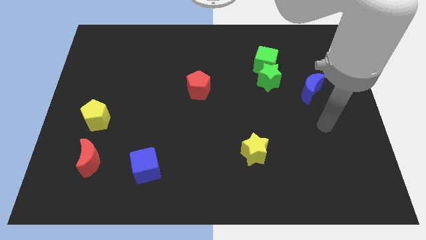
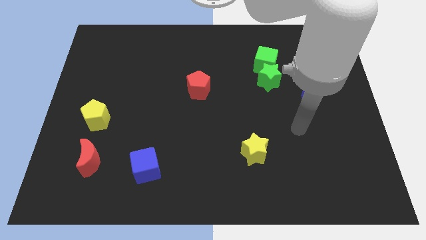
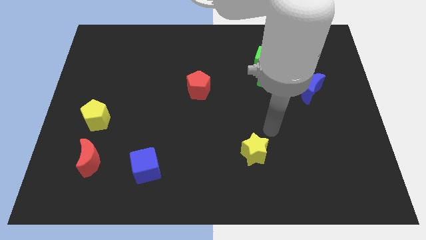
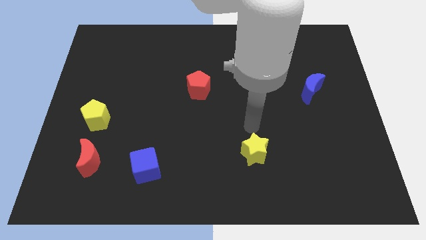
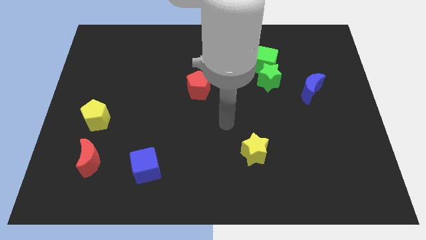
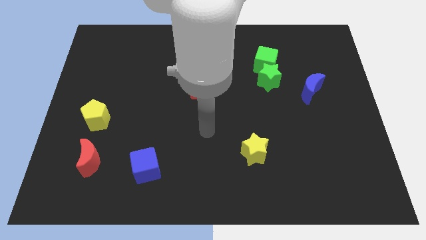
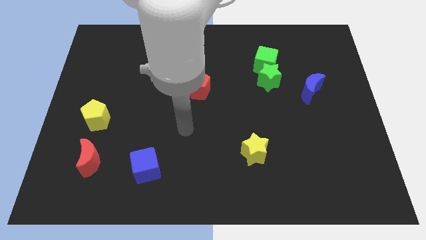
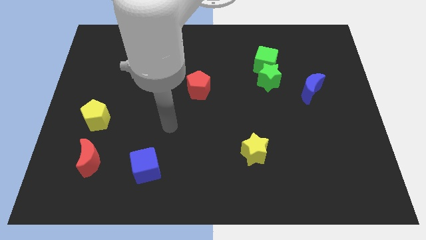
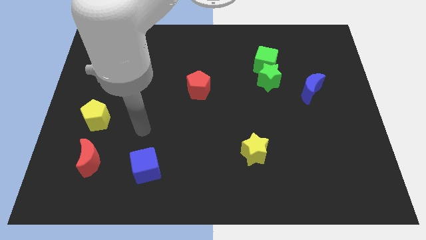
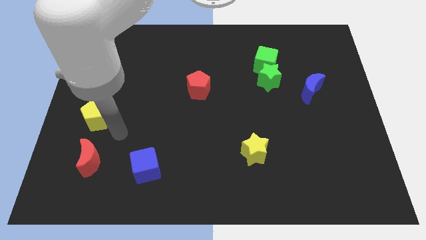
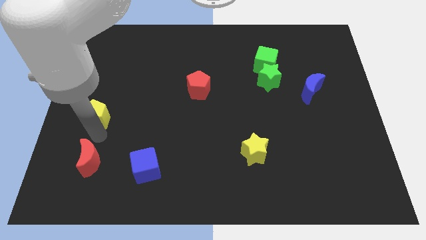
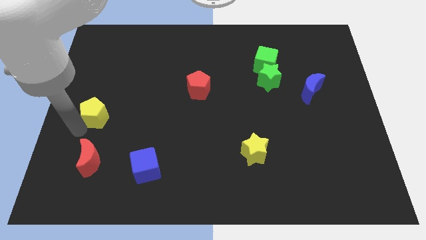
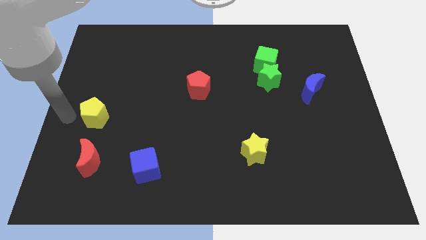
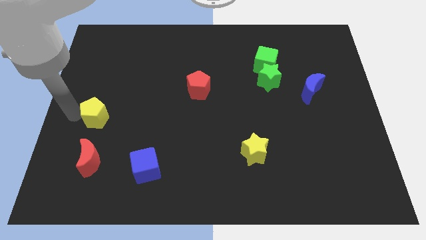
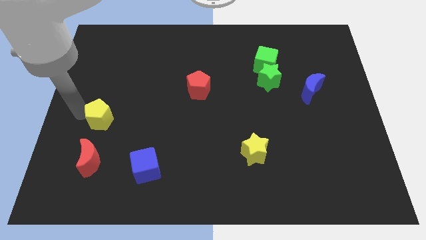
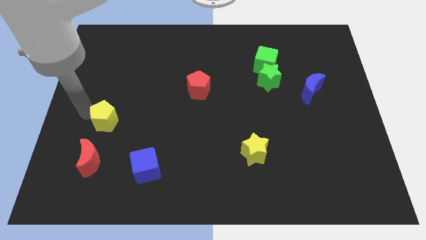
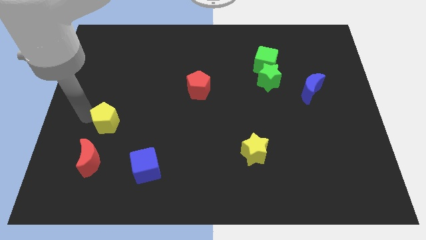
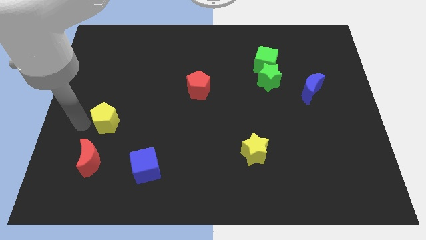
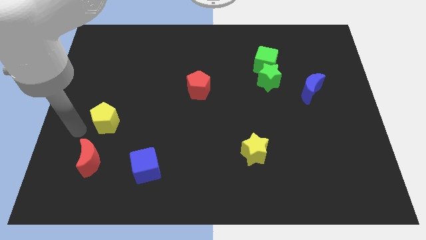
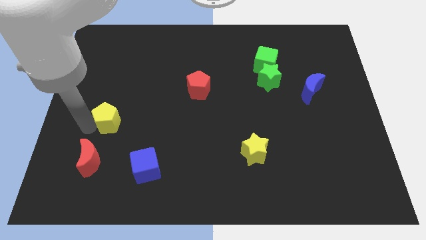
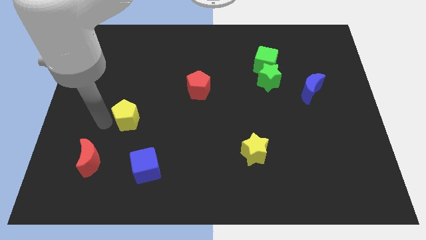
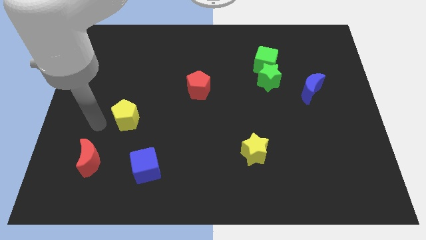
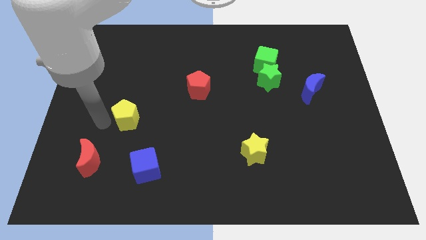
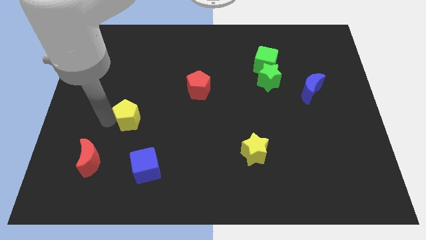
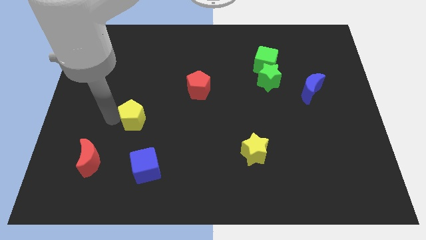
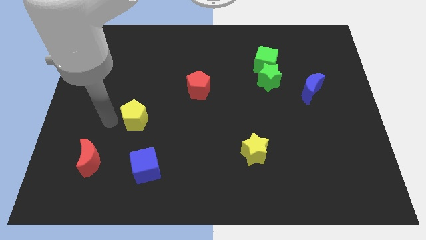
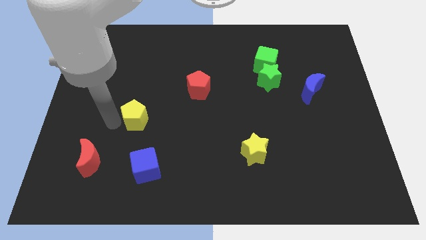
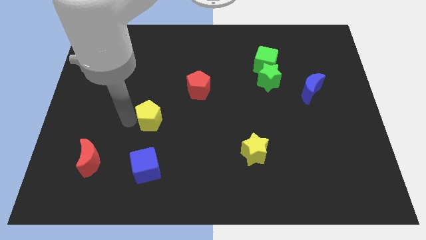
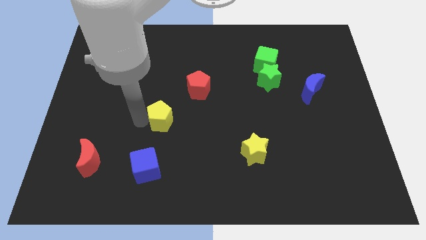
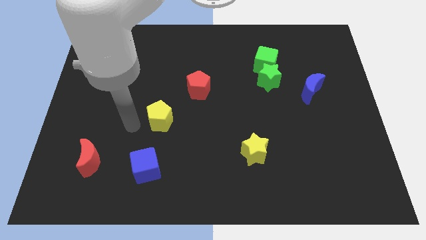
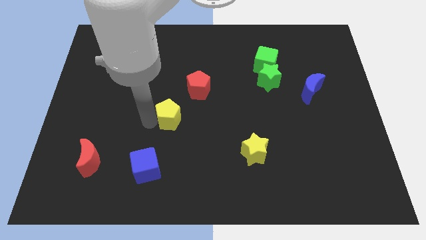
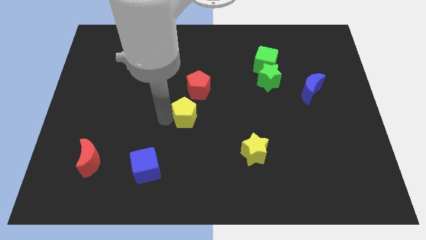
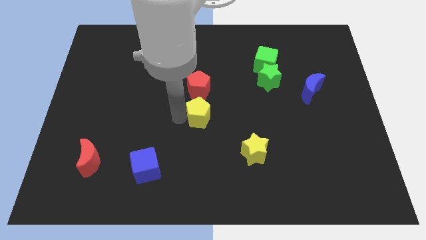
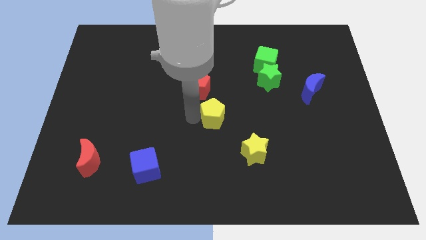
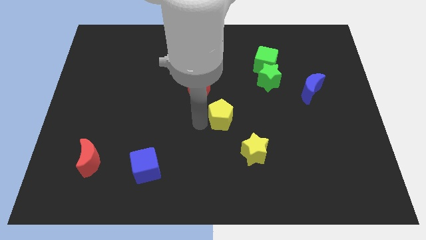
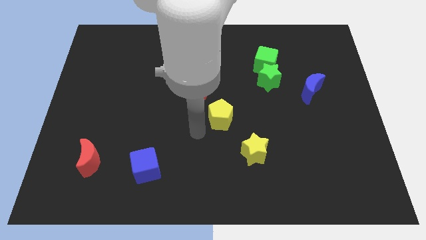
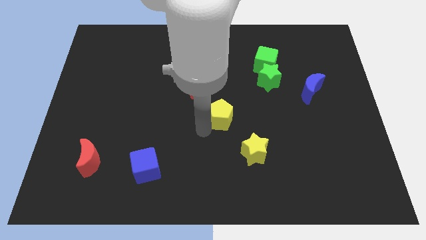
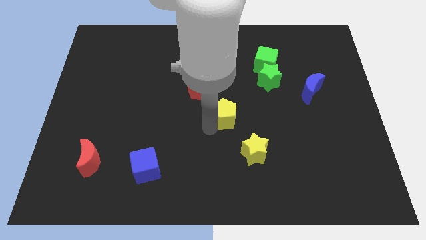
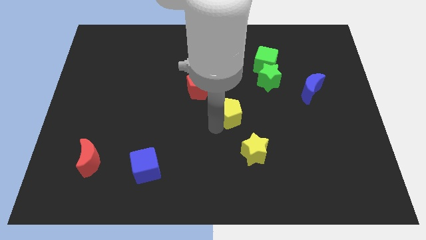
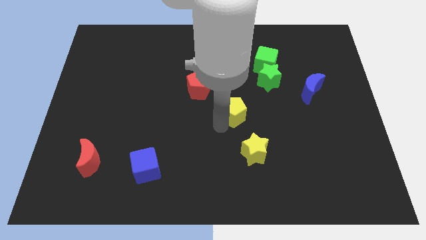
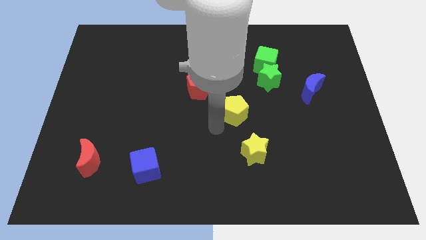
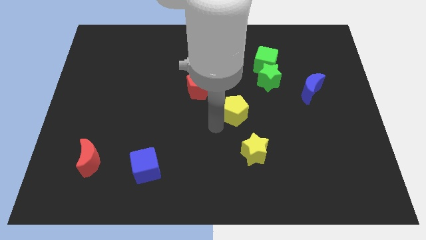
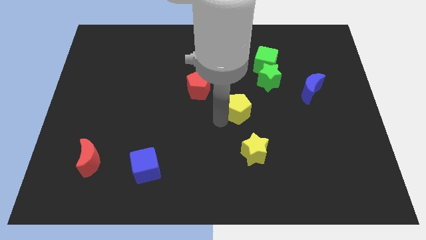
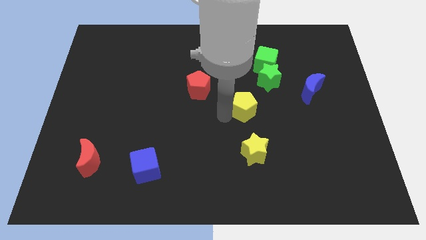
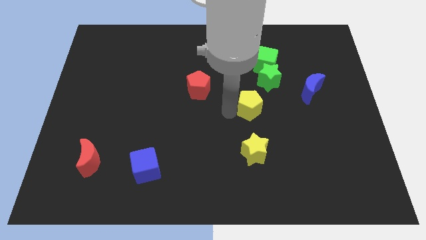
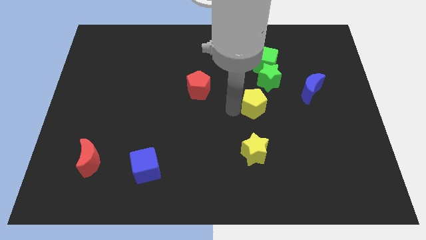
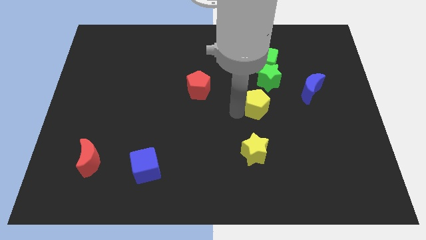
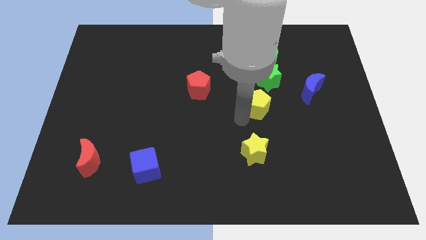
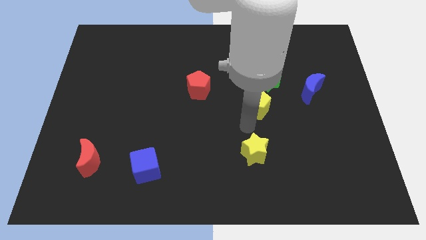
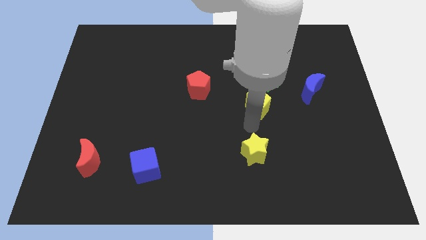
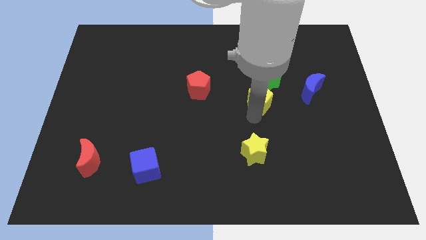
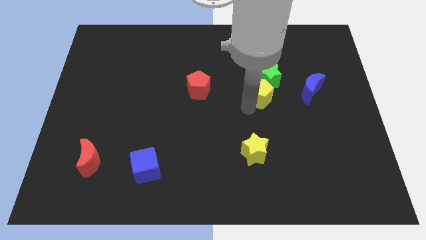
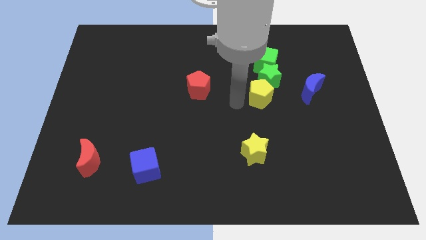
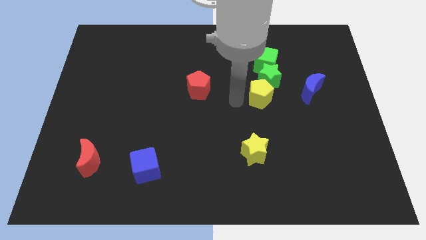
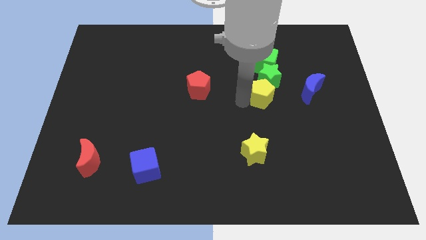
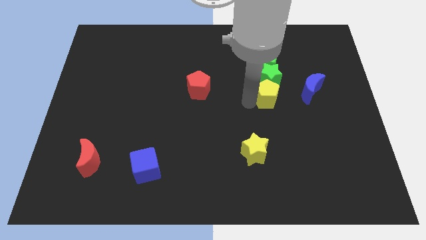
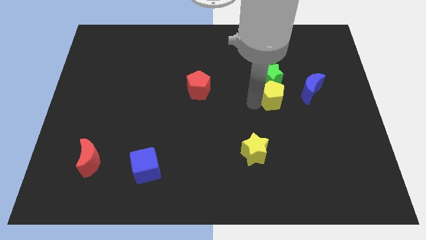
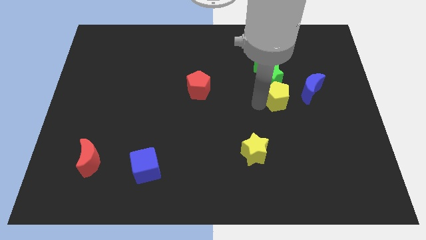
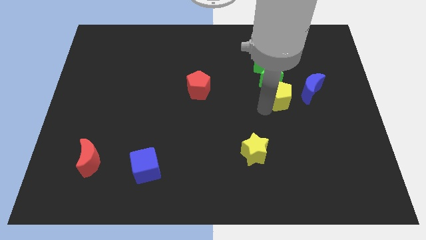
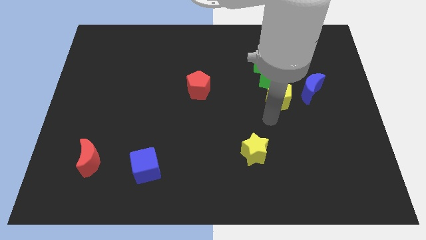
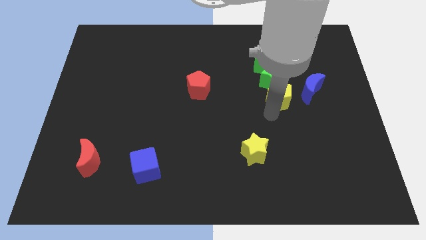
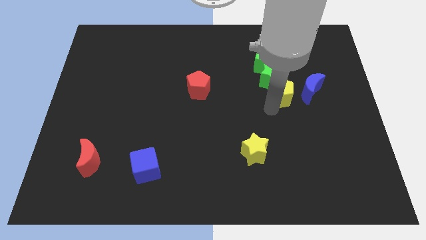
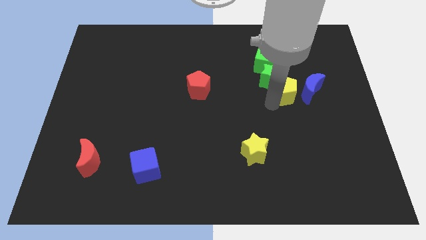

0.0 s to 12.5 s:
slide the yellow pentagon to the bottom right of the green cube

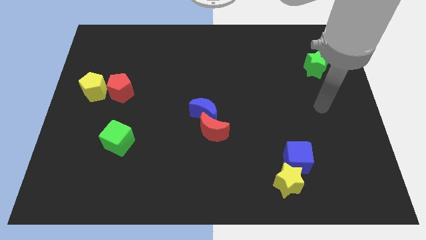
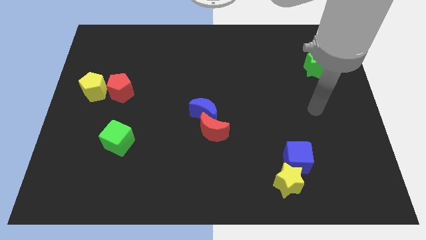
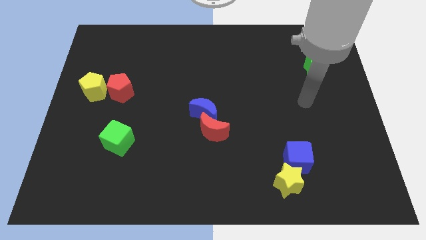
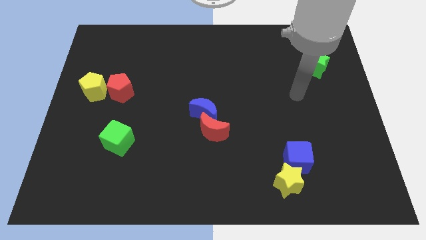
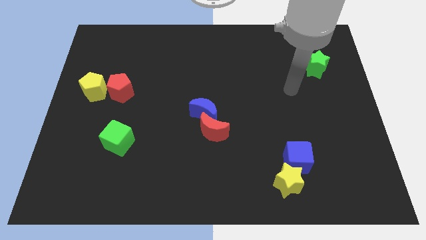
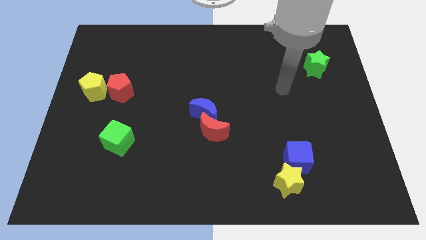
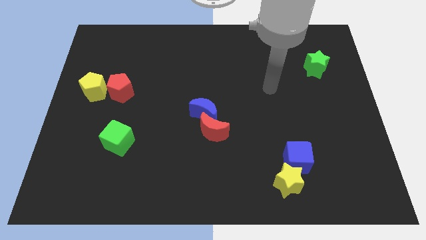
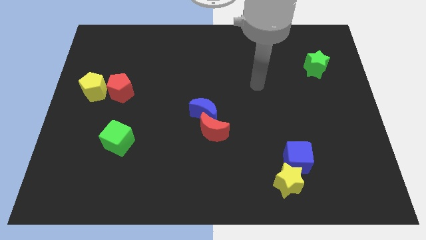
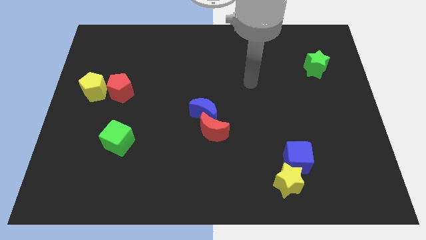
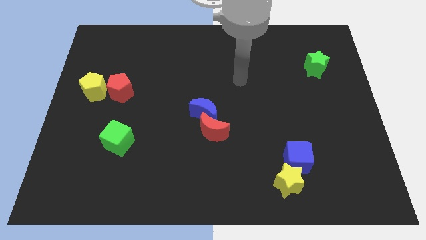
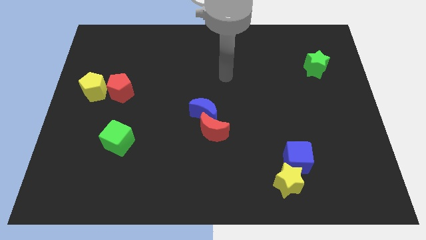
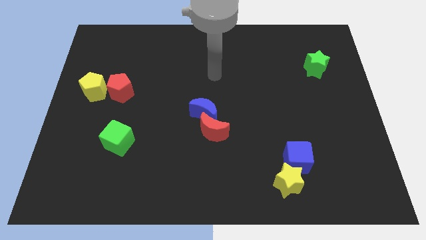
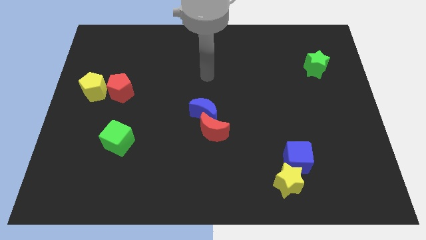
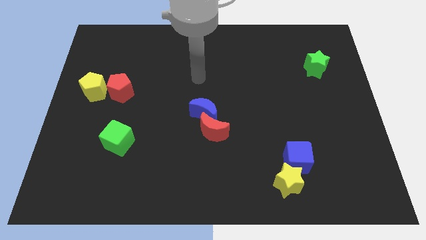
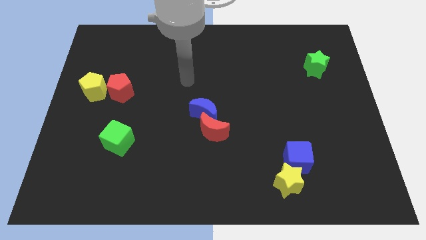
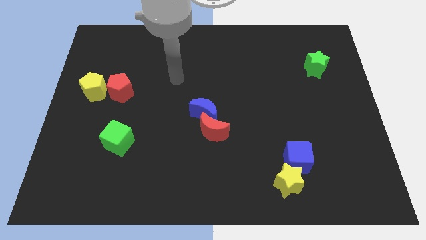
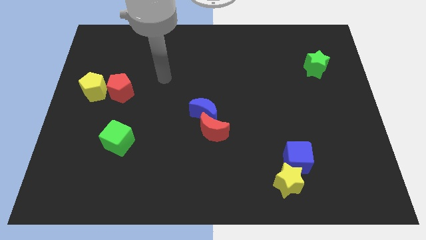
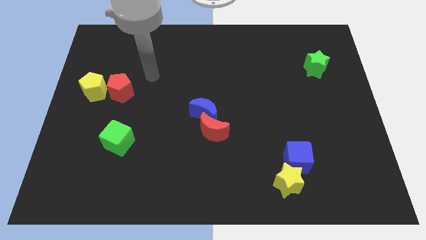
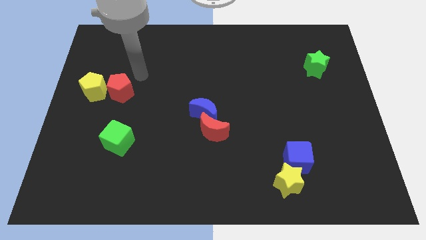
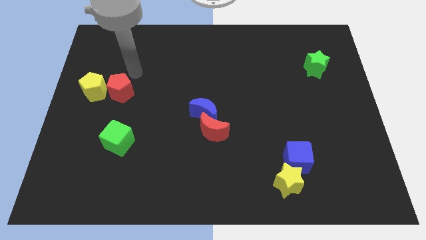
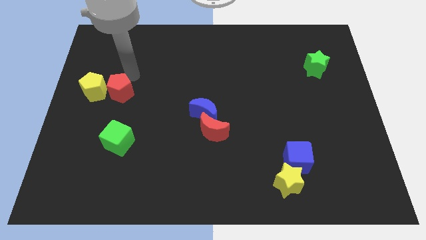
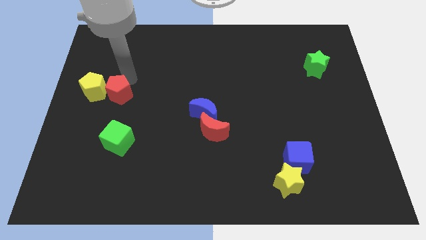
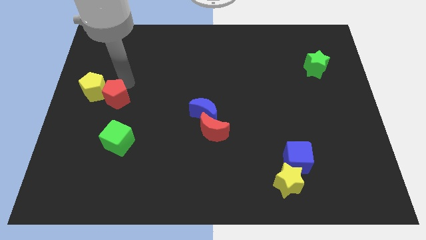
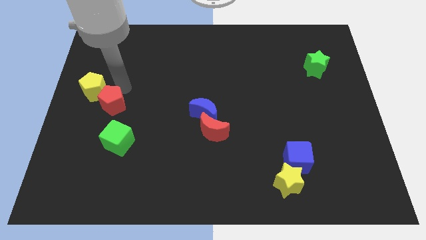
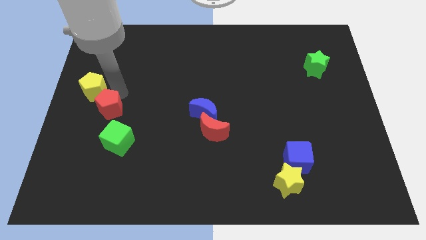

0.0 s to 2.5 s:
slide the red pentagon to the top left of the green cube
